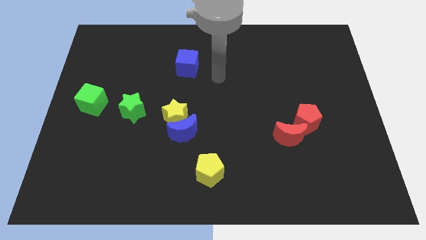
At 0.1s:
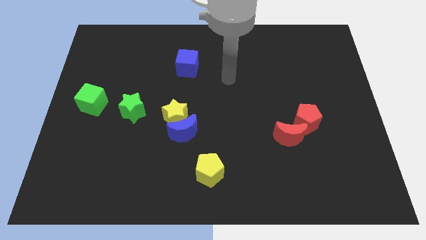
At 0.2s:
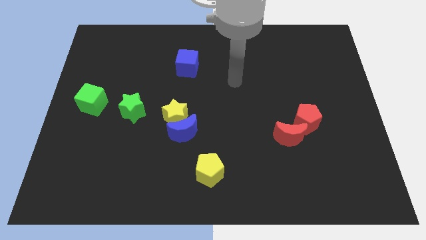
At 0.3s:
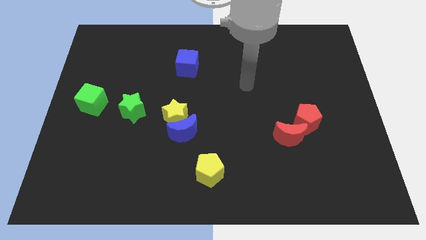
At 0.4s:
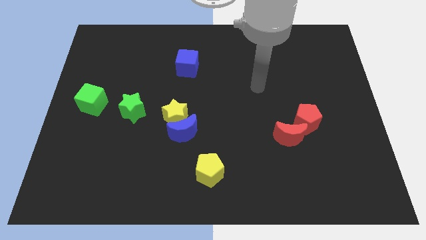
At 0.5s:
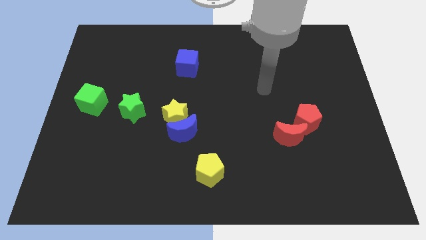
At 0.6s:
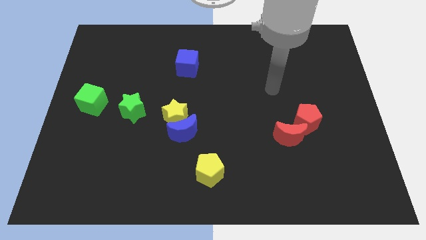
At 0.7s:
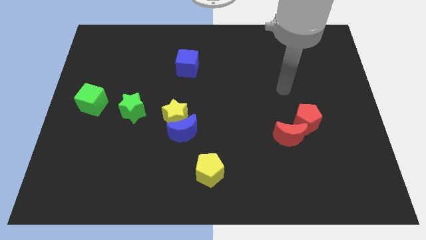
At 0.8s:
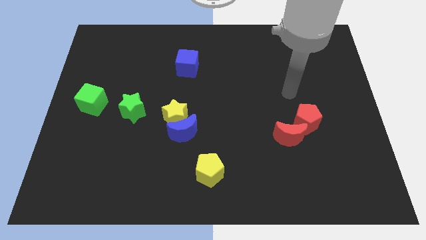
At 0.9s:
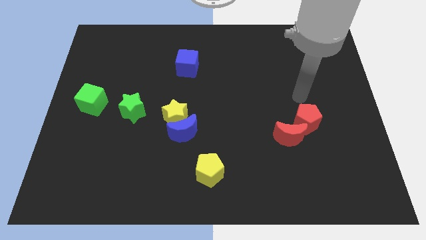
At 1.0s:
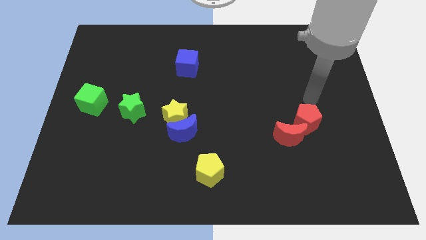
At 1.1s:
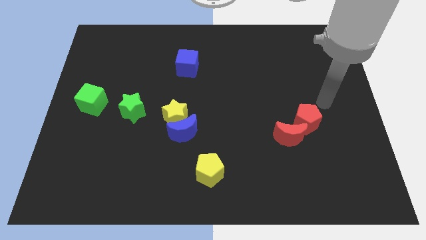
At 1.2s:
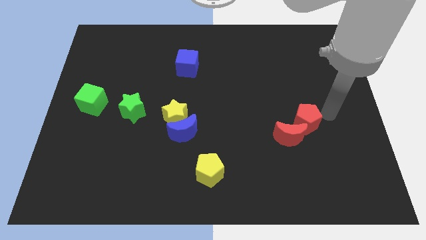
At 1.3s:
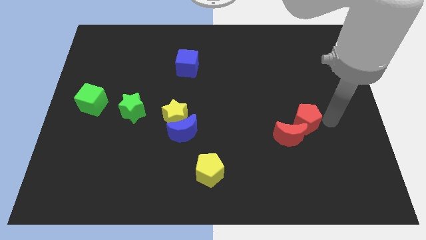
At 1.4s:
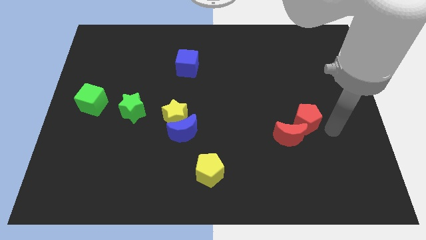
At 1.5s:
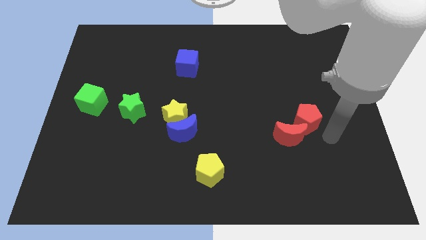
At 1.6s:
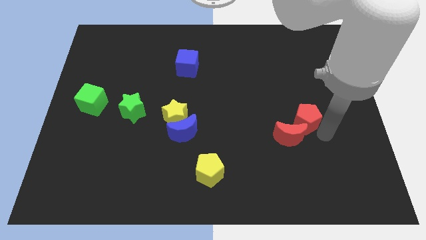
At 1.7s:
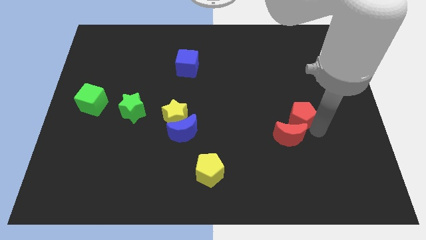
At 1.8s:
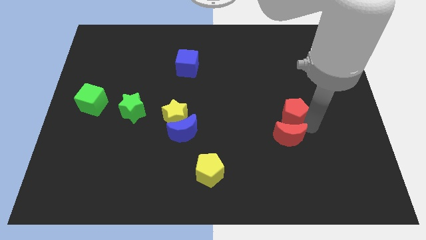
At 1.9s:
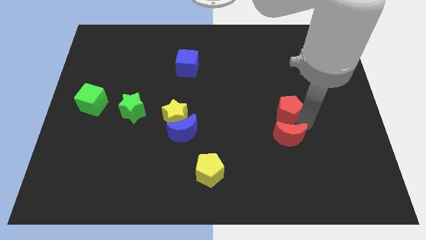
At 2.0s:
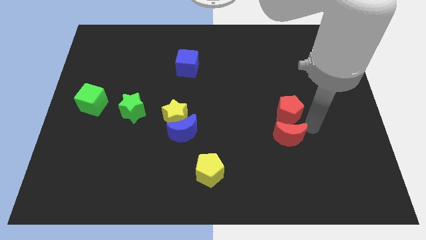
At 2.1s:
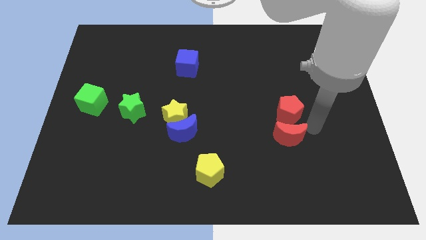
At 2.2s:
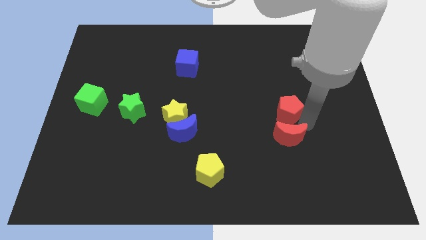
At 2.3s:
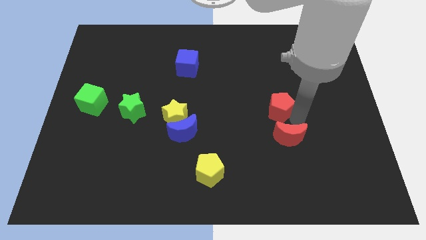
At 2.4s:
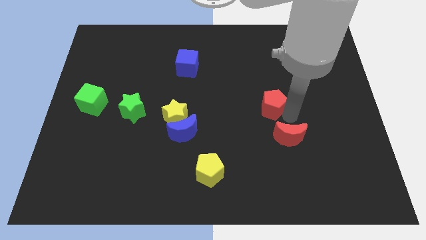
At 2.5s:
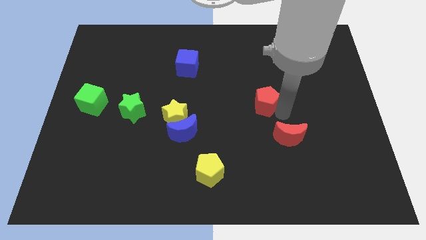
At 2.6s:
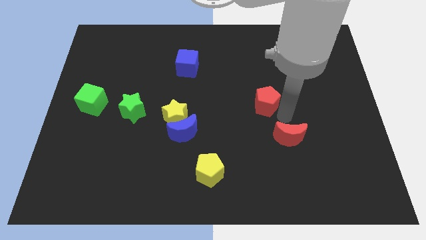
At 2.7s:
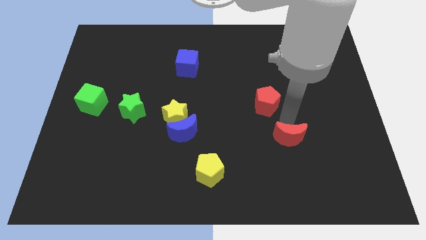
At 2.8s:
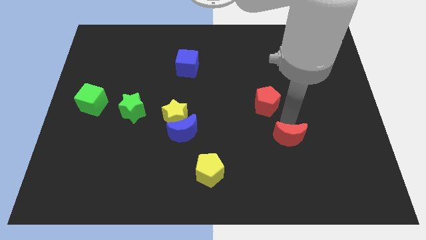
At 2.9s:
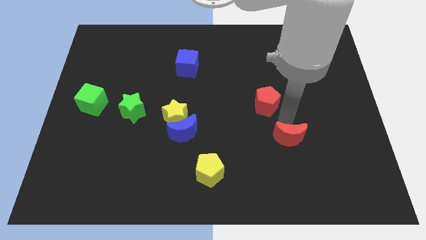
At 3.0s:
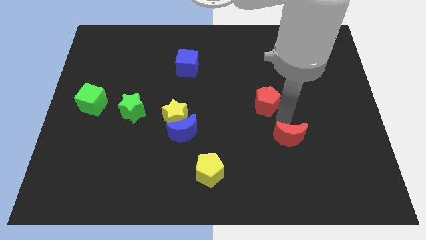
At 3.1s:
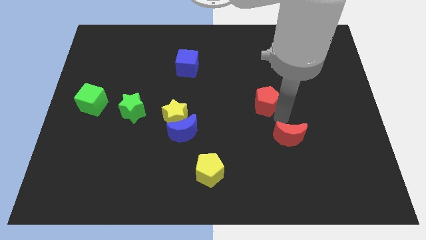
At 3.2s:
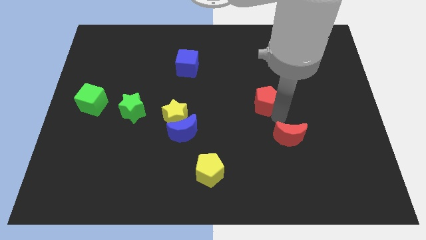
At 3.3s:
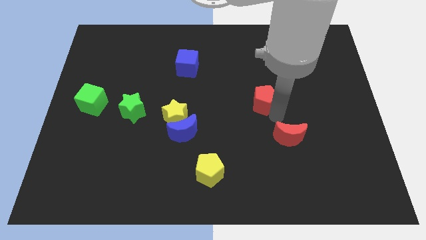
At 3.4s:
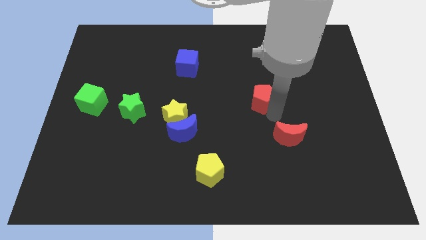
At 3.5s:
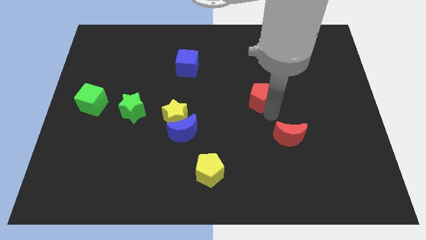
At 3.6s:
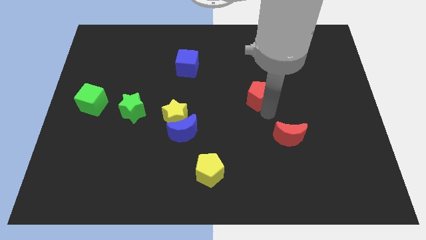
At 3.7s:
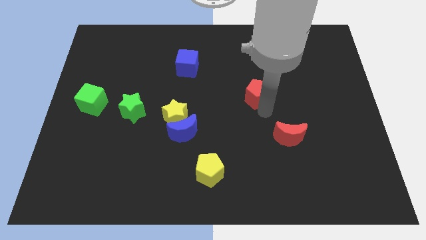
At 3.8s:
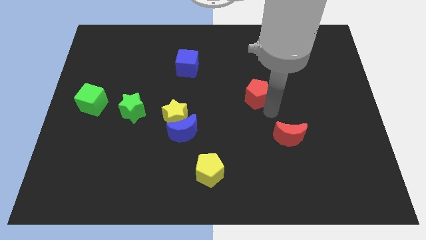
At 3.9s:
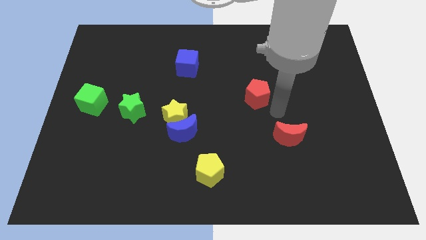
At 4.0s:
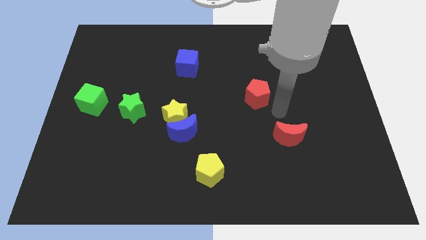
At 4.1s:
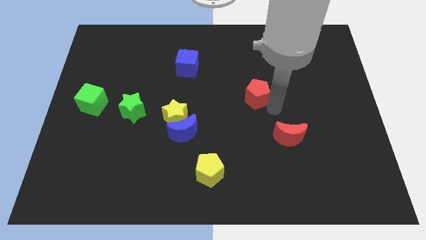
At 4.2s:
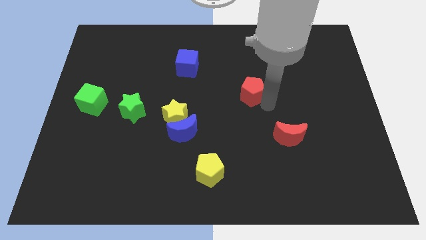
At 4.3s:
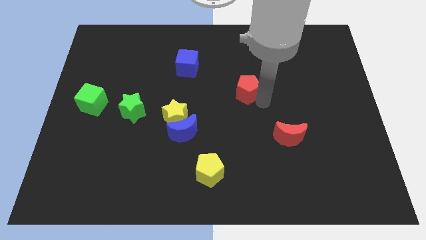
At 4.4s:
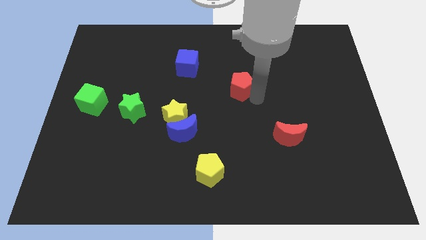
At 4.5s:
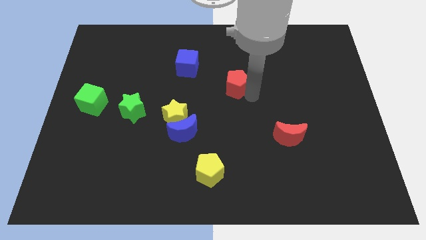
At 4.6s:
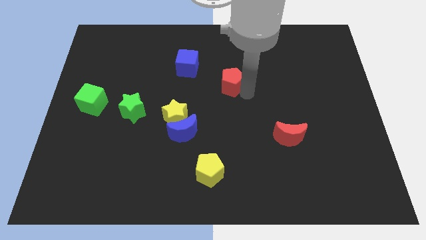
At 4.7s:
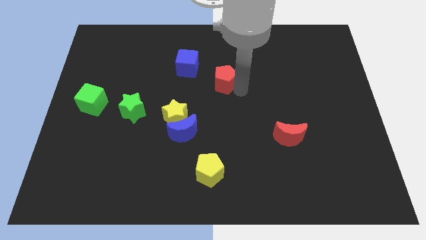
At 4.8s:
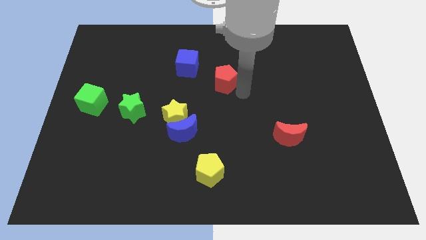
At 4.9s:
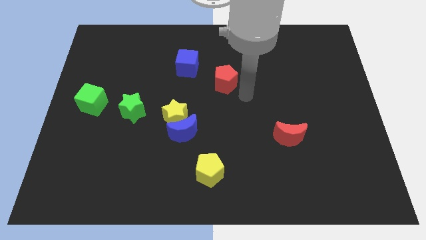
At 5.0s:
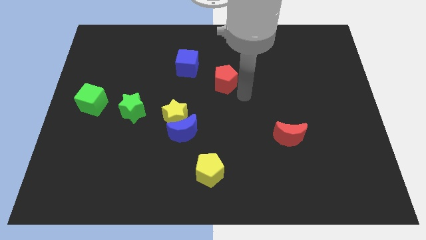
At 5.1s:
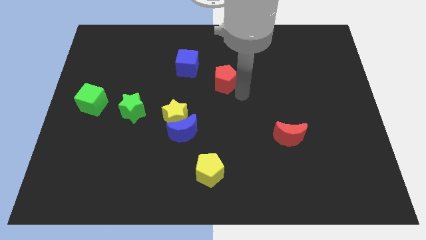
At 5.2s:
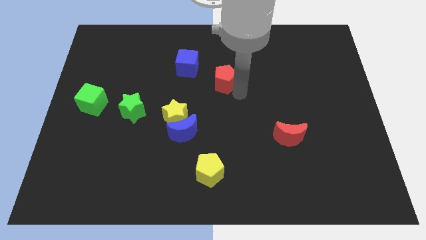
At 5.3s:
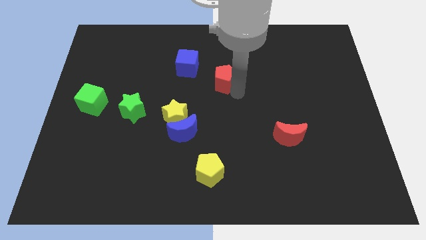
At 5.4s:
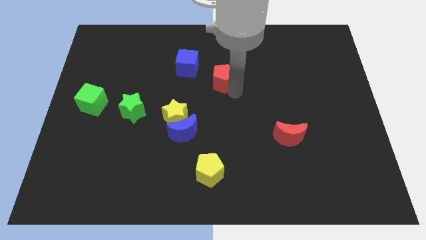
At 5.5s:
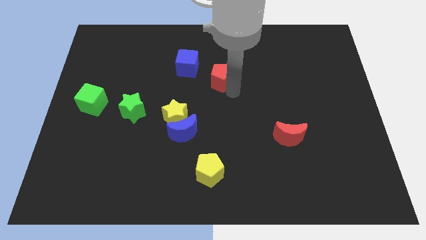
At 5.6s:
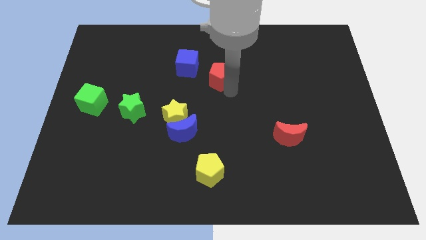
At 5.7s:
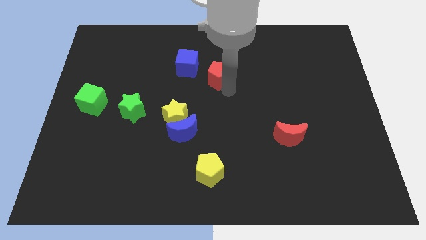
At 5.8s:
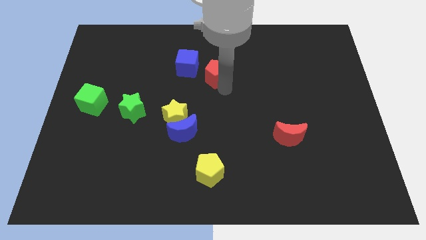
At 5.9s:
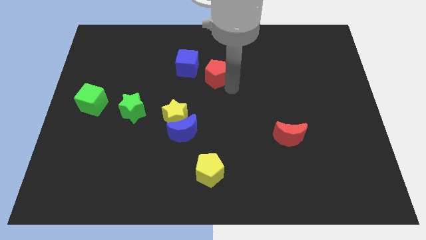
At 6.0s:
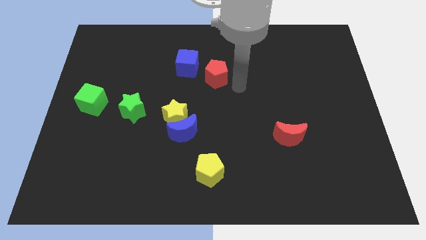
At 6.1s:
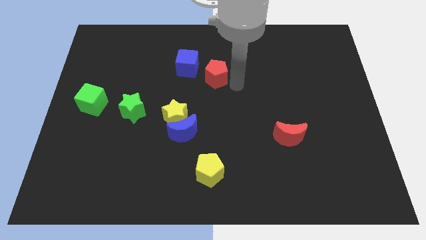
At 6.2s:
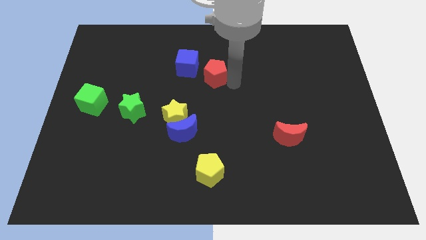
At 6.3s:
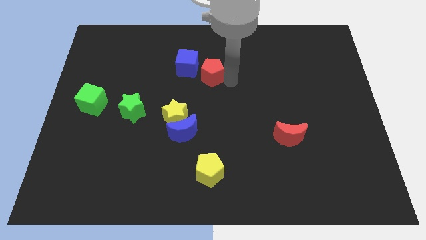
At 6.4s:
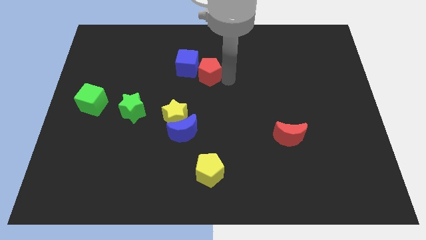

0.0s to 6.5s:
push the red pentagon to the blue cube

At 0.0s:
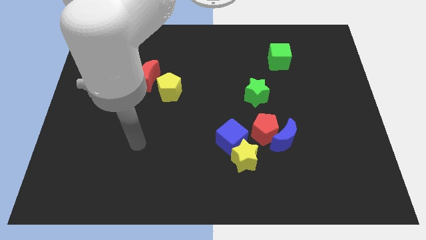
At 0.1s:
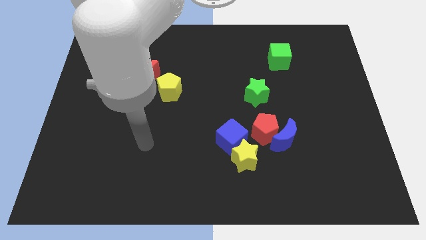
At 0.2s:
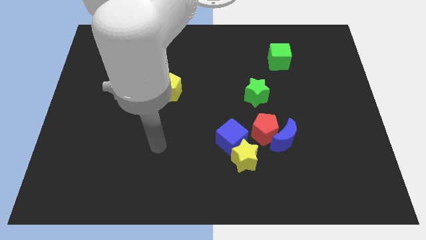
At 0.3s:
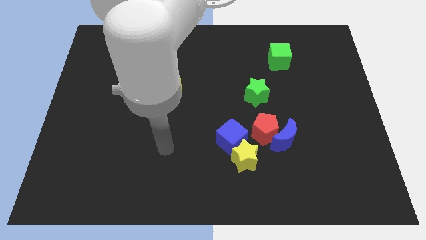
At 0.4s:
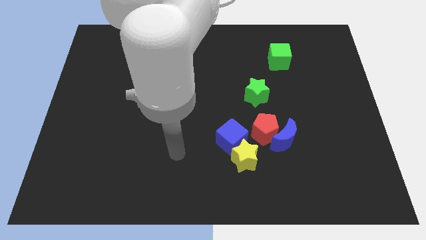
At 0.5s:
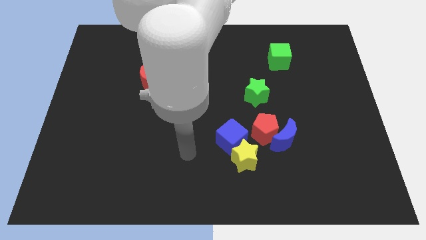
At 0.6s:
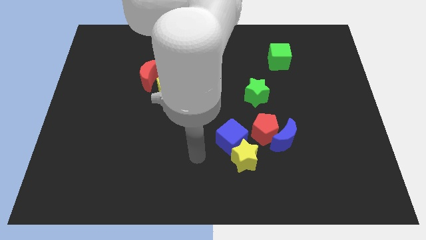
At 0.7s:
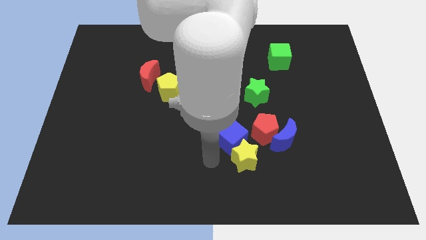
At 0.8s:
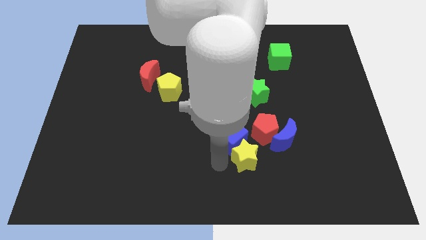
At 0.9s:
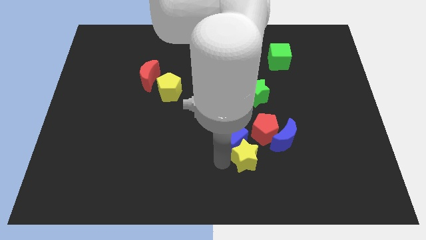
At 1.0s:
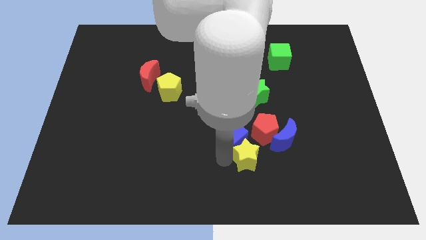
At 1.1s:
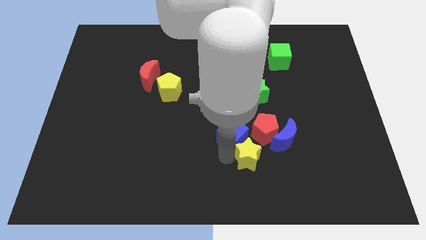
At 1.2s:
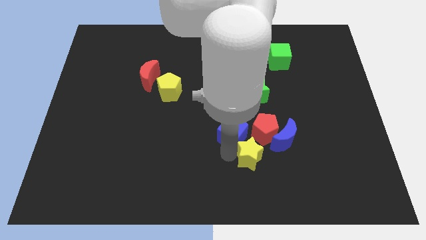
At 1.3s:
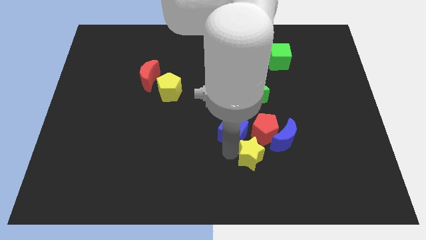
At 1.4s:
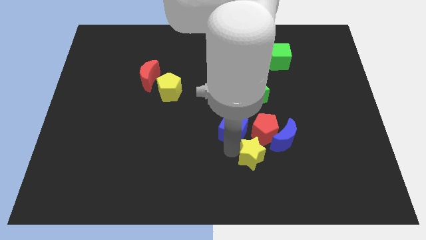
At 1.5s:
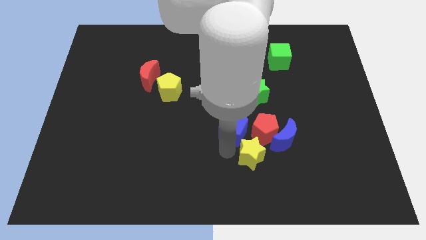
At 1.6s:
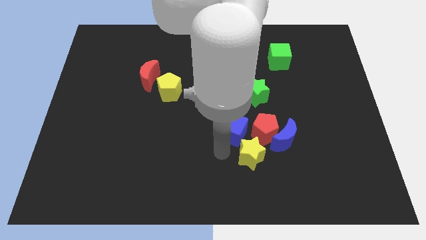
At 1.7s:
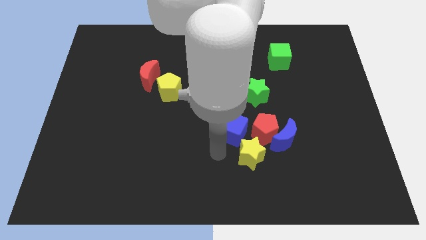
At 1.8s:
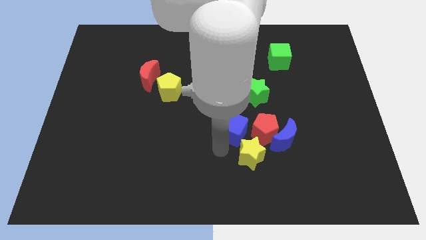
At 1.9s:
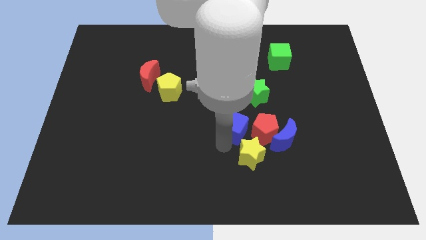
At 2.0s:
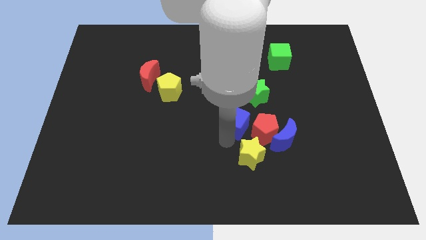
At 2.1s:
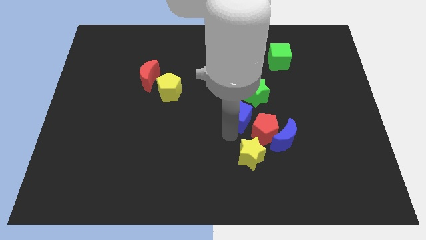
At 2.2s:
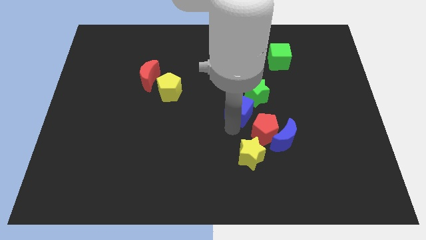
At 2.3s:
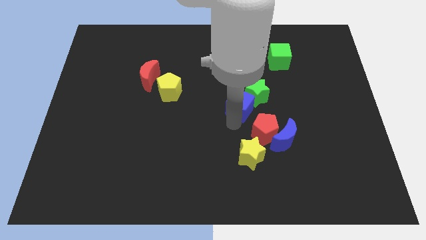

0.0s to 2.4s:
slide the blue cube to the green star
